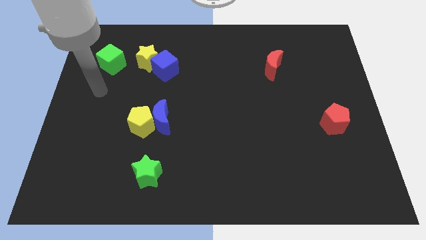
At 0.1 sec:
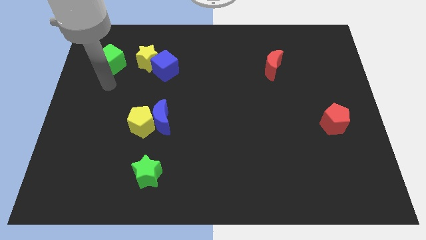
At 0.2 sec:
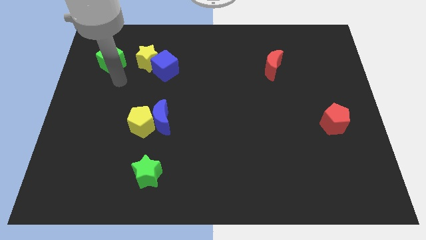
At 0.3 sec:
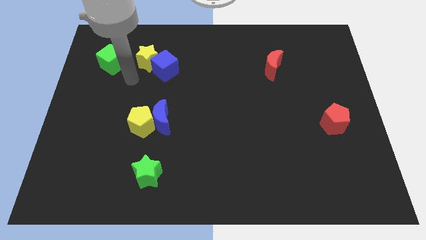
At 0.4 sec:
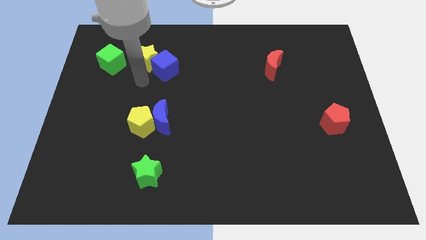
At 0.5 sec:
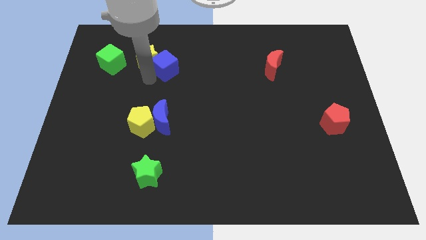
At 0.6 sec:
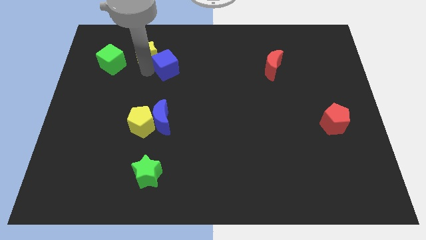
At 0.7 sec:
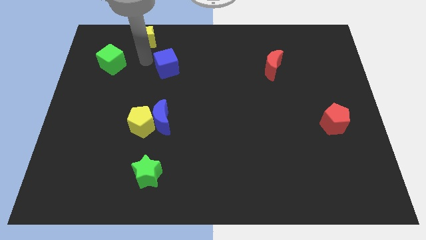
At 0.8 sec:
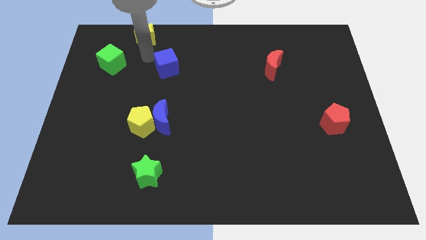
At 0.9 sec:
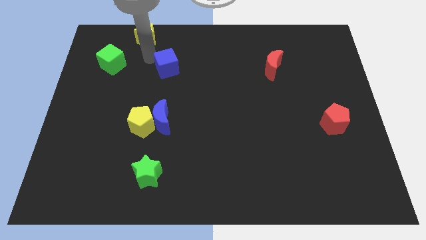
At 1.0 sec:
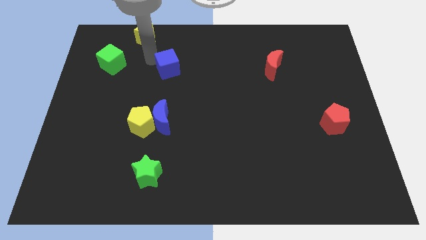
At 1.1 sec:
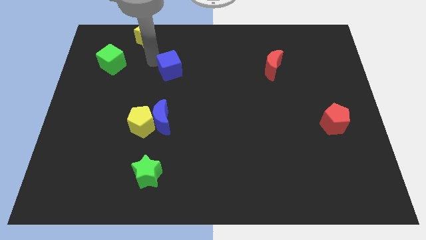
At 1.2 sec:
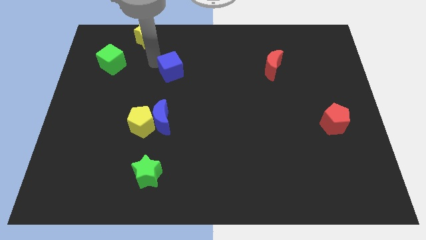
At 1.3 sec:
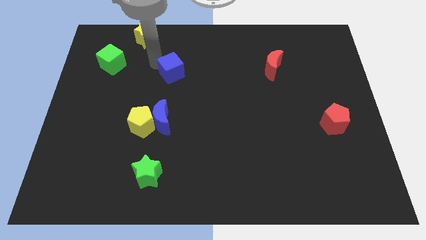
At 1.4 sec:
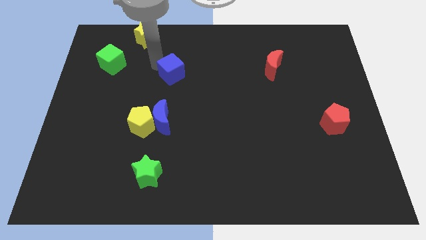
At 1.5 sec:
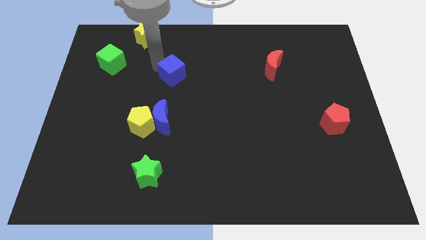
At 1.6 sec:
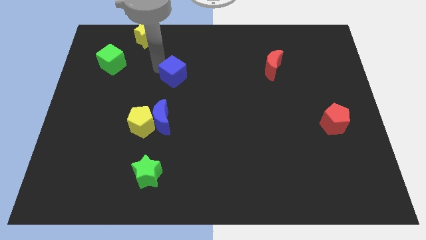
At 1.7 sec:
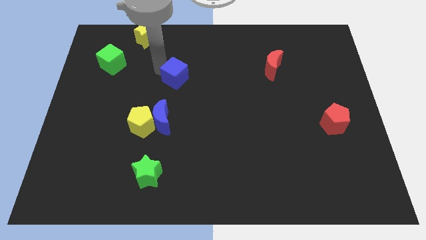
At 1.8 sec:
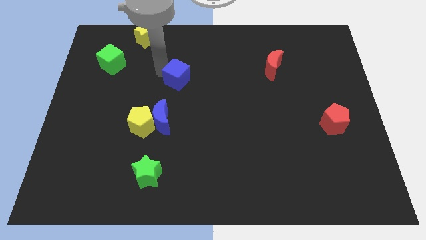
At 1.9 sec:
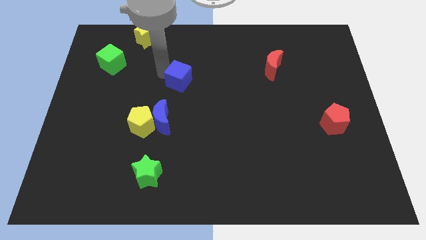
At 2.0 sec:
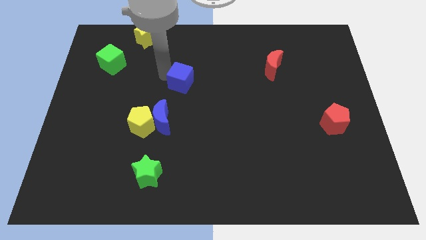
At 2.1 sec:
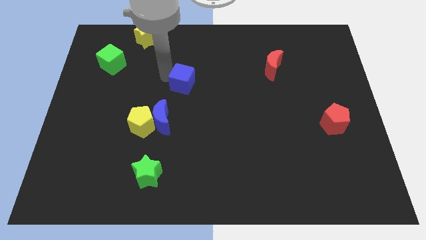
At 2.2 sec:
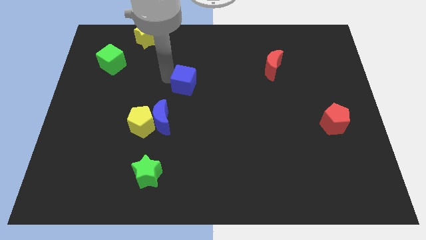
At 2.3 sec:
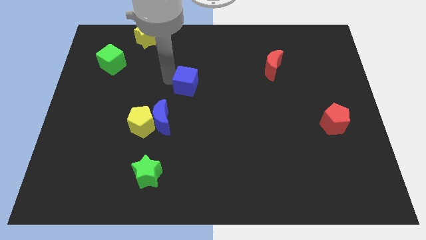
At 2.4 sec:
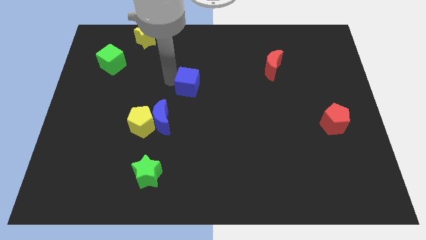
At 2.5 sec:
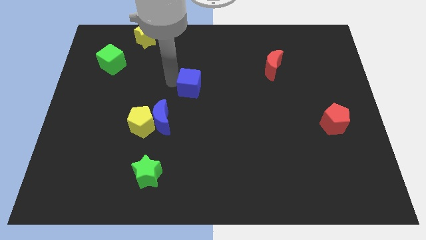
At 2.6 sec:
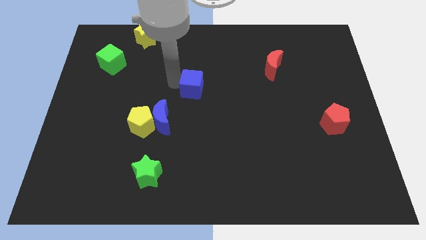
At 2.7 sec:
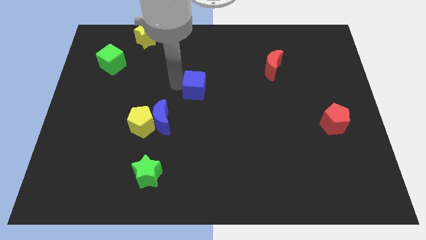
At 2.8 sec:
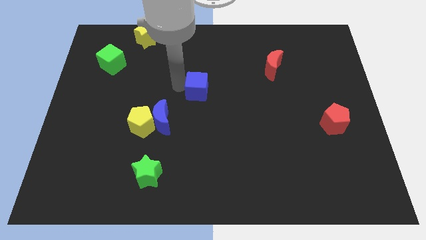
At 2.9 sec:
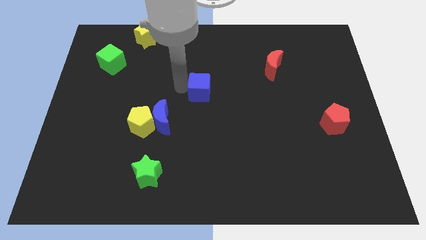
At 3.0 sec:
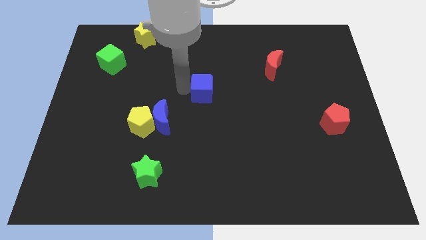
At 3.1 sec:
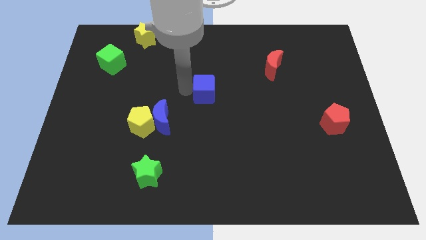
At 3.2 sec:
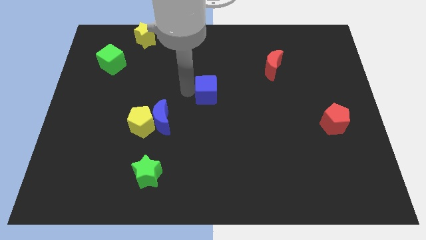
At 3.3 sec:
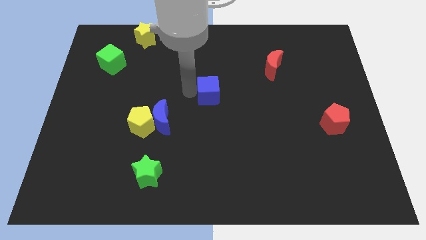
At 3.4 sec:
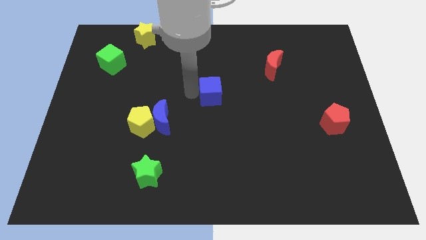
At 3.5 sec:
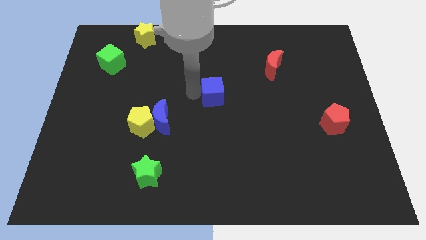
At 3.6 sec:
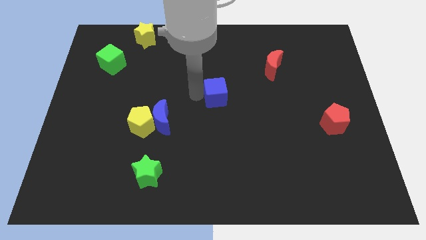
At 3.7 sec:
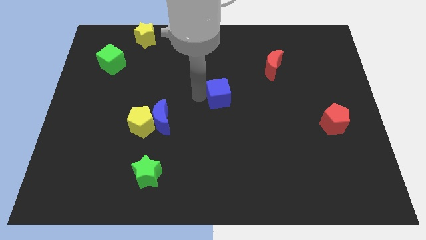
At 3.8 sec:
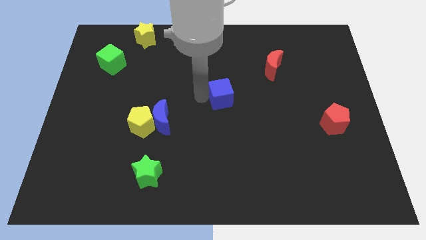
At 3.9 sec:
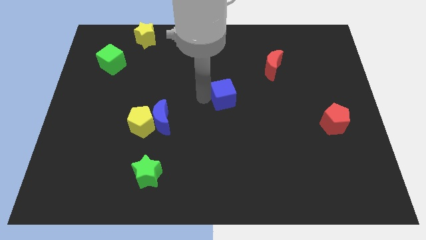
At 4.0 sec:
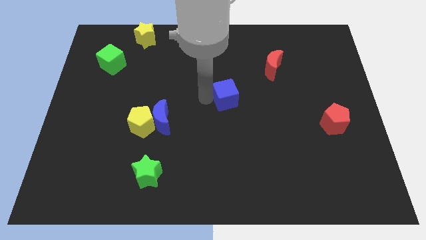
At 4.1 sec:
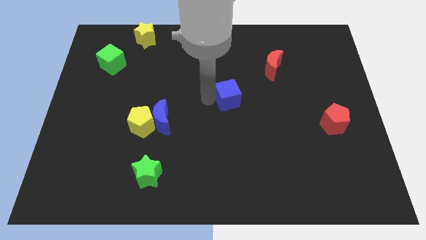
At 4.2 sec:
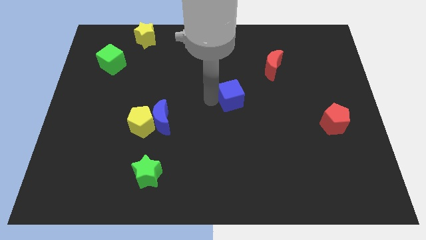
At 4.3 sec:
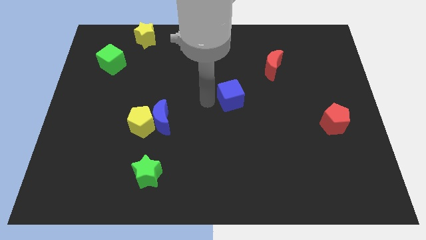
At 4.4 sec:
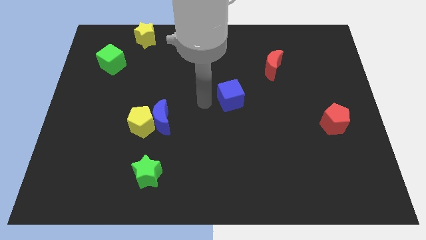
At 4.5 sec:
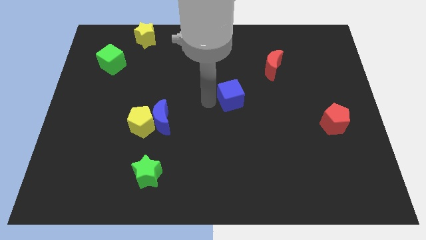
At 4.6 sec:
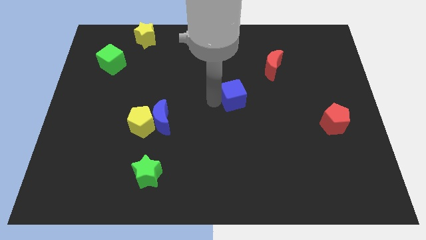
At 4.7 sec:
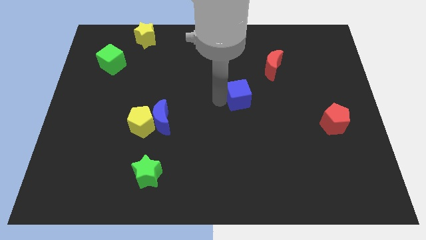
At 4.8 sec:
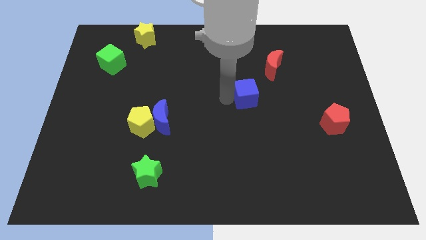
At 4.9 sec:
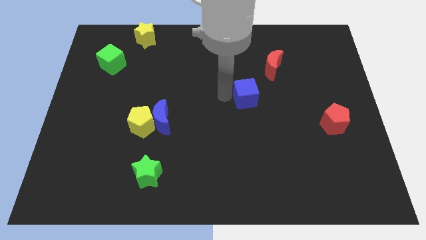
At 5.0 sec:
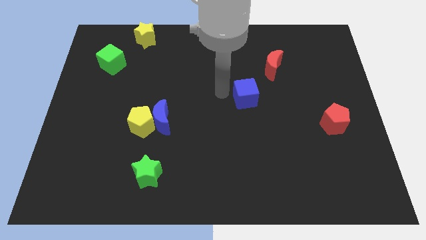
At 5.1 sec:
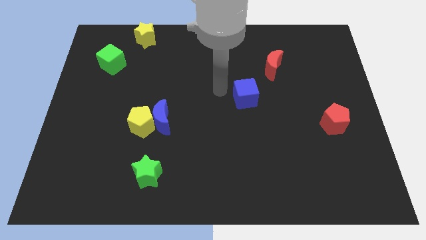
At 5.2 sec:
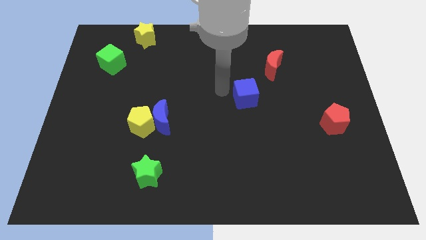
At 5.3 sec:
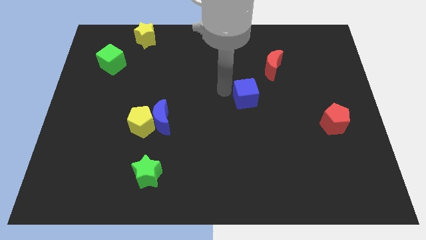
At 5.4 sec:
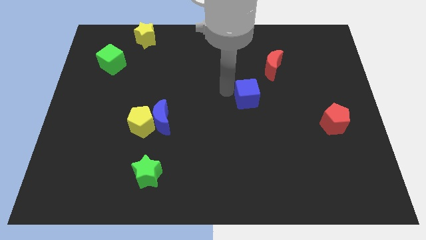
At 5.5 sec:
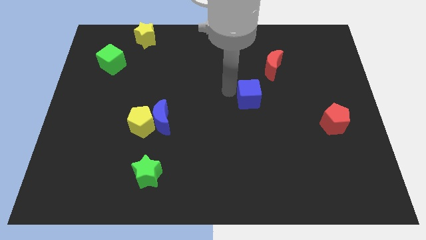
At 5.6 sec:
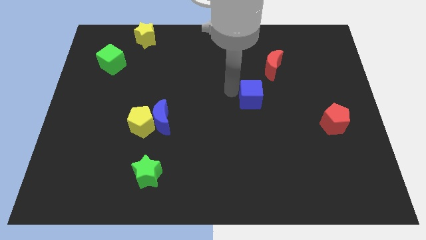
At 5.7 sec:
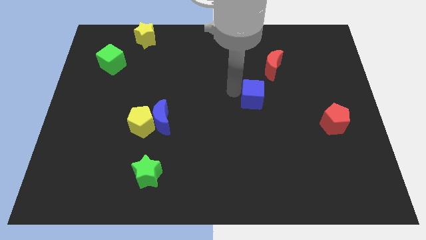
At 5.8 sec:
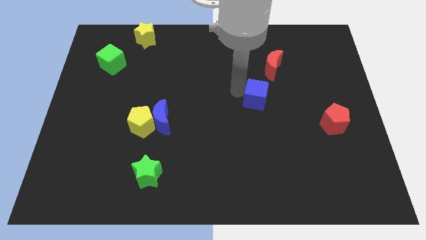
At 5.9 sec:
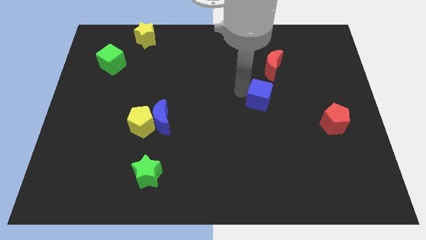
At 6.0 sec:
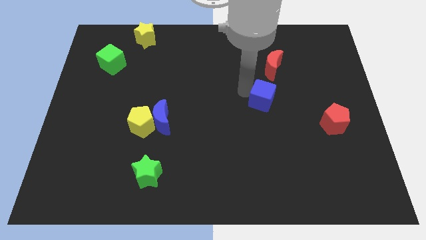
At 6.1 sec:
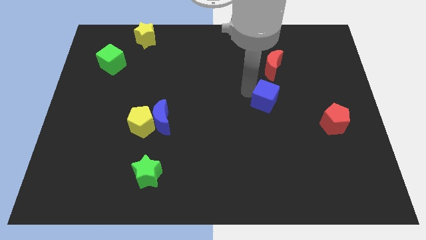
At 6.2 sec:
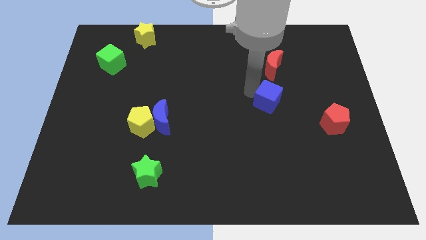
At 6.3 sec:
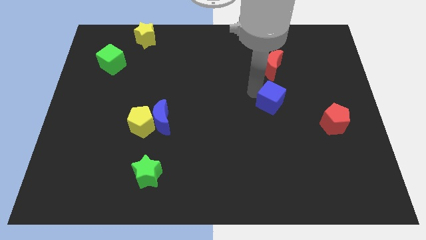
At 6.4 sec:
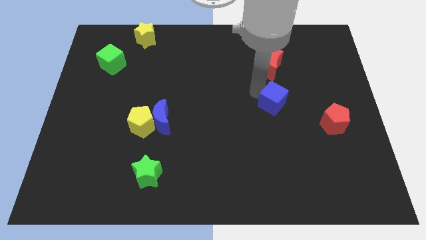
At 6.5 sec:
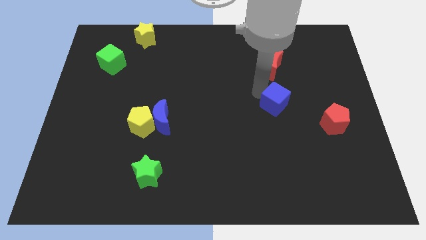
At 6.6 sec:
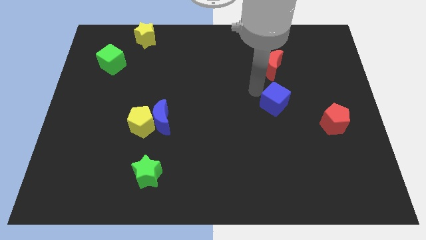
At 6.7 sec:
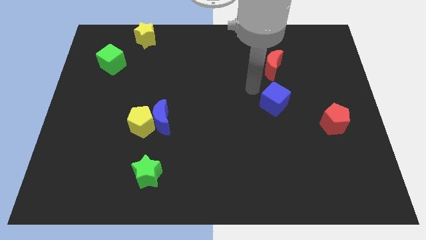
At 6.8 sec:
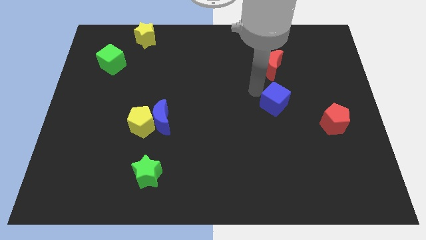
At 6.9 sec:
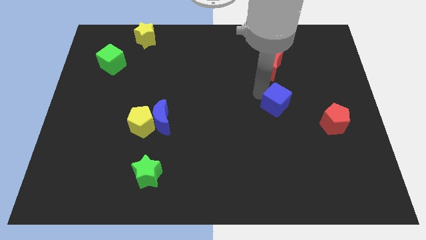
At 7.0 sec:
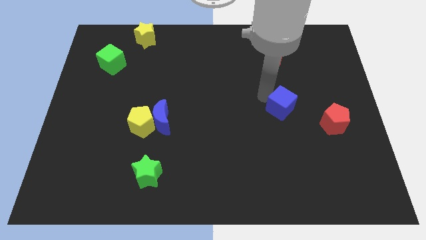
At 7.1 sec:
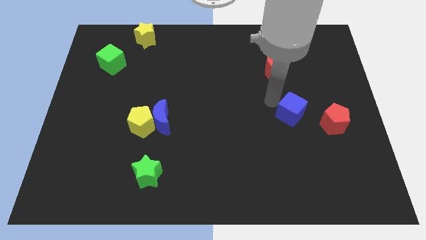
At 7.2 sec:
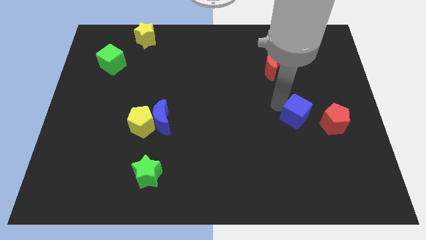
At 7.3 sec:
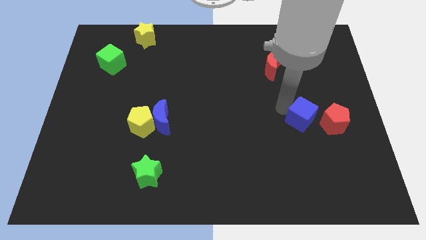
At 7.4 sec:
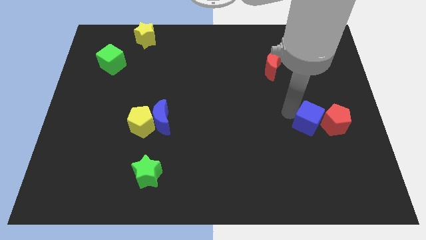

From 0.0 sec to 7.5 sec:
move the blue cube towards the red pentagon
